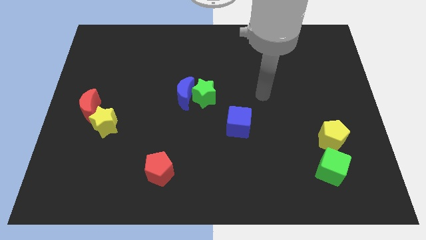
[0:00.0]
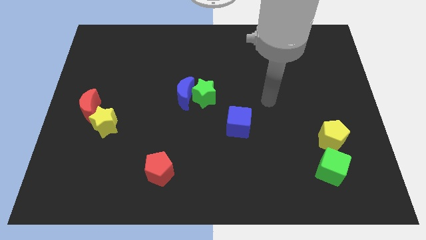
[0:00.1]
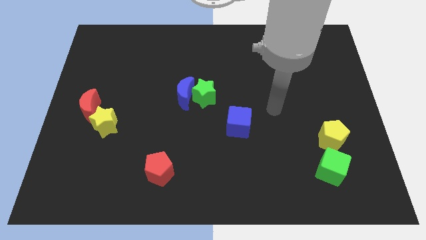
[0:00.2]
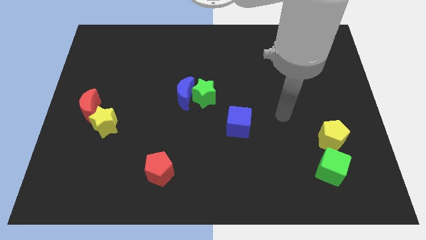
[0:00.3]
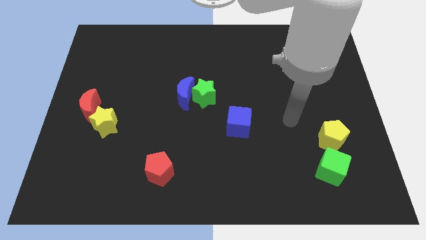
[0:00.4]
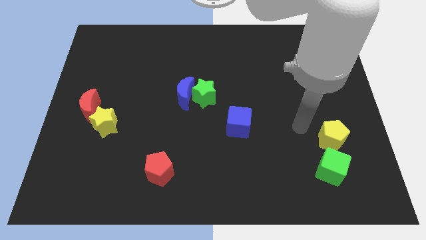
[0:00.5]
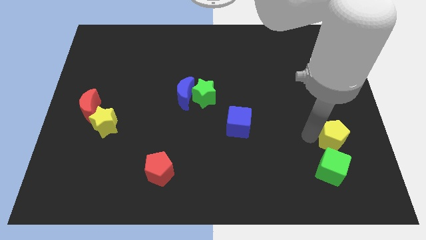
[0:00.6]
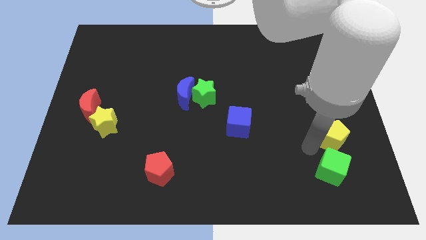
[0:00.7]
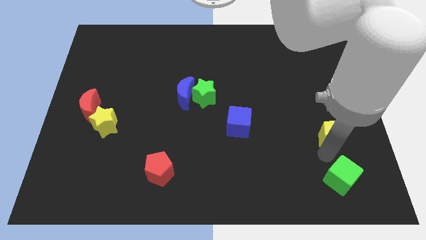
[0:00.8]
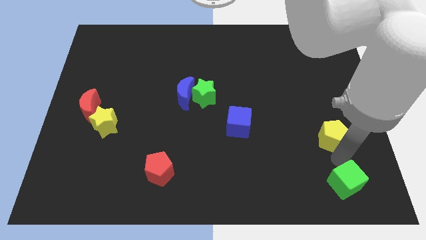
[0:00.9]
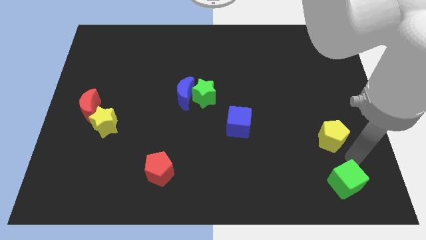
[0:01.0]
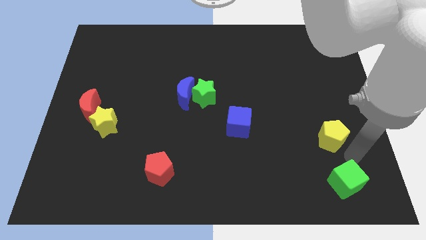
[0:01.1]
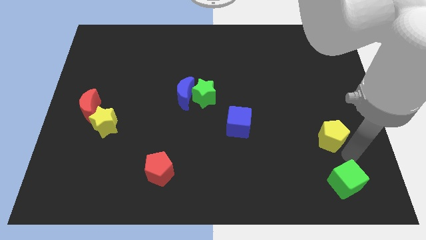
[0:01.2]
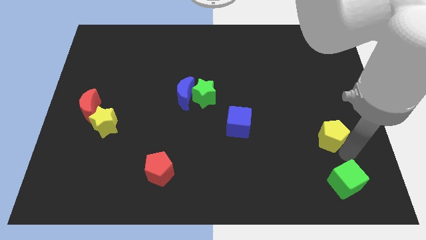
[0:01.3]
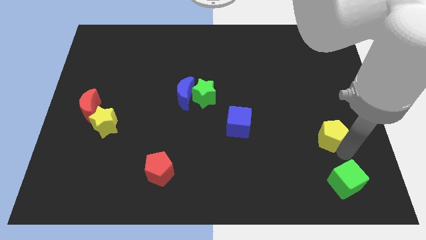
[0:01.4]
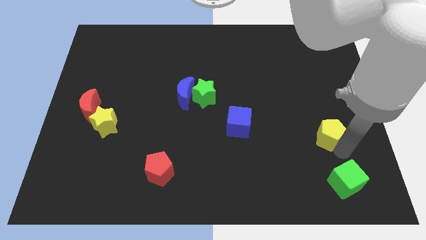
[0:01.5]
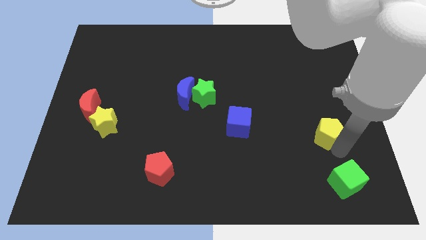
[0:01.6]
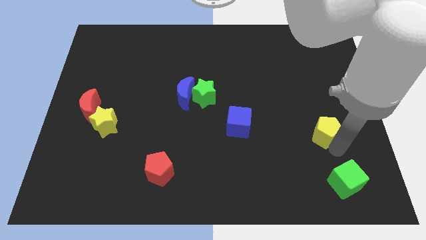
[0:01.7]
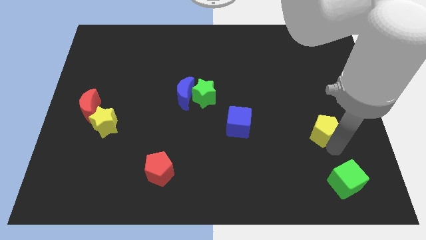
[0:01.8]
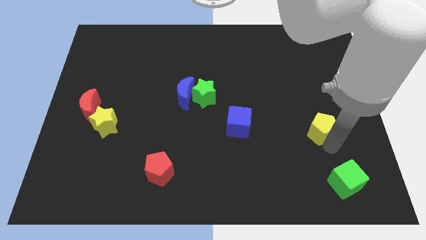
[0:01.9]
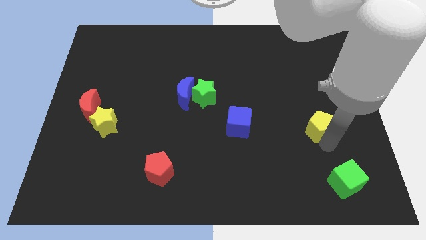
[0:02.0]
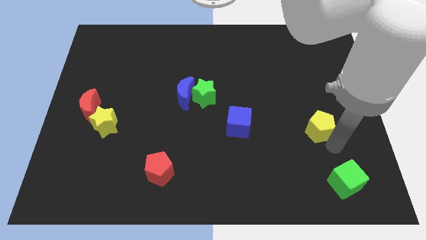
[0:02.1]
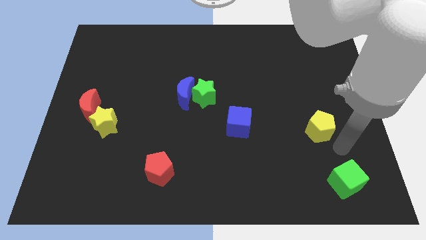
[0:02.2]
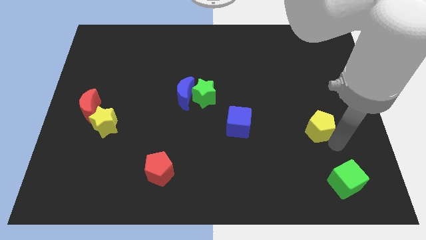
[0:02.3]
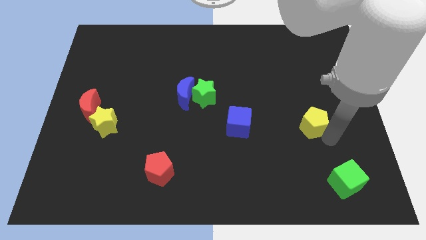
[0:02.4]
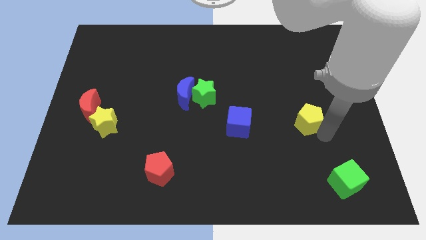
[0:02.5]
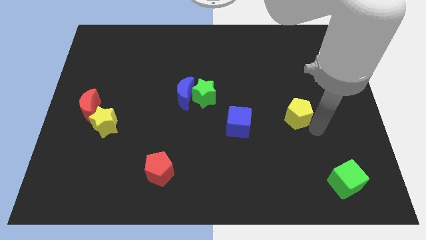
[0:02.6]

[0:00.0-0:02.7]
slide the yellow pentagon up and then to the left somewhat

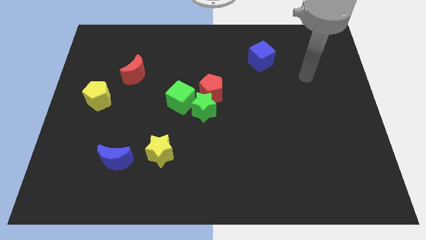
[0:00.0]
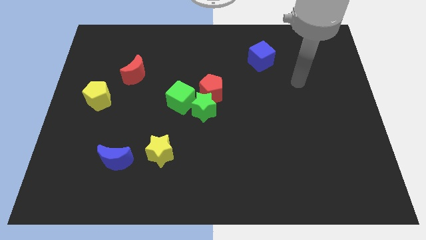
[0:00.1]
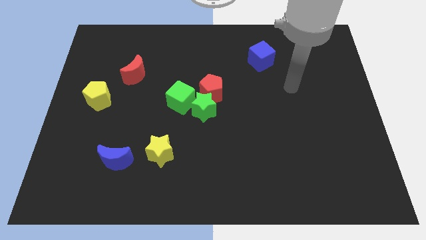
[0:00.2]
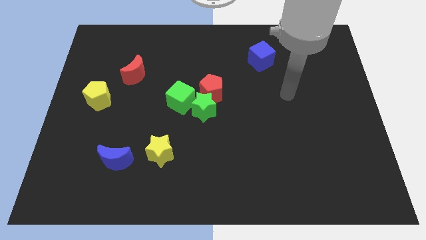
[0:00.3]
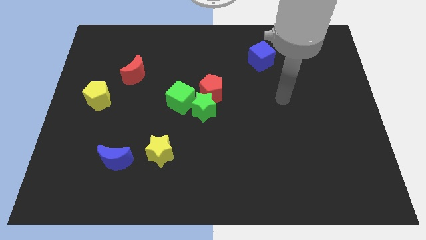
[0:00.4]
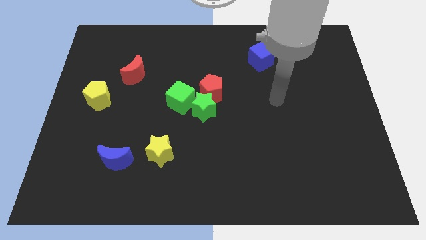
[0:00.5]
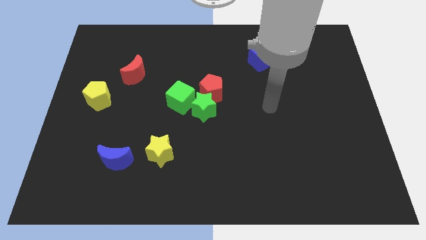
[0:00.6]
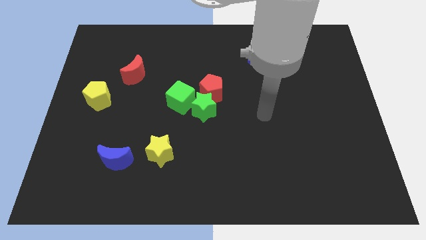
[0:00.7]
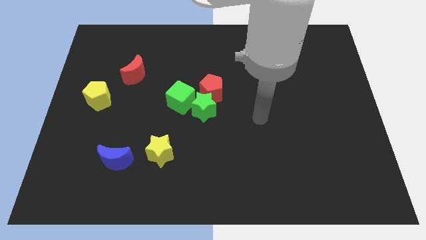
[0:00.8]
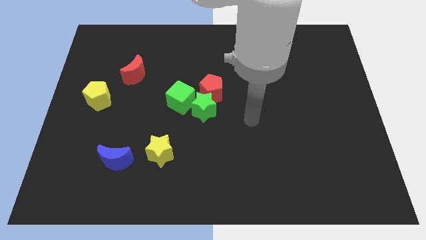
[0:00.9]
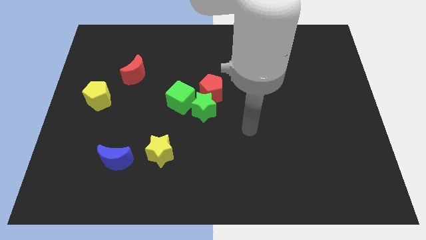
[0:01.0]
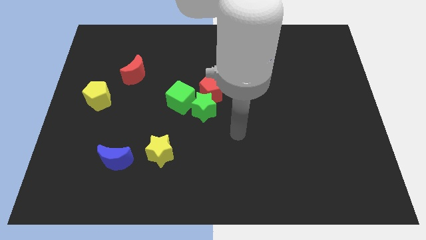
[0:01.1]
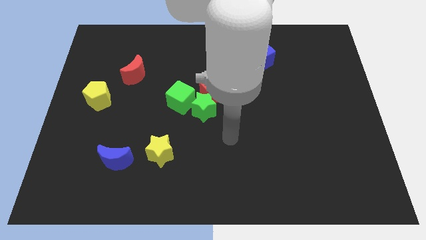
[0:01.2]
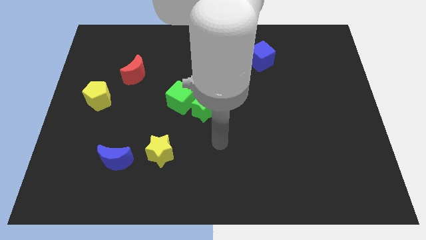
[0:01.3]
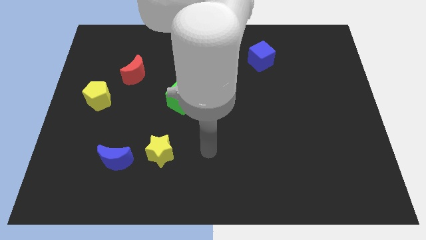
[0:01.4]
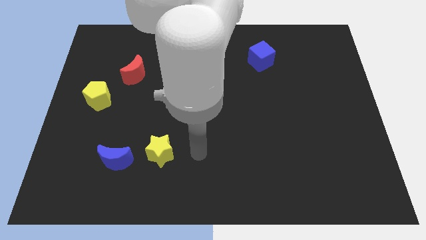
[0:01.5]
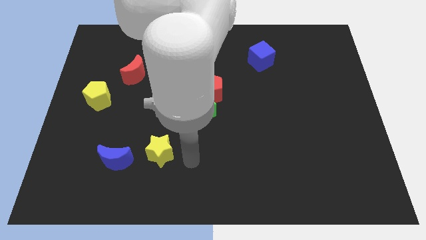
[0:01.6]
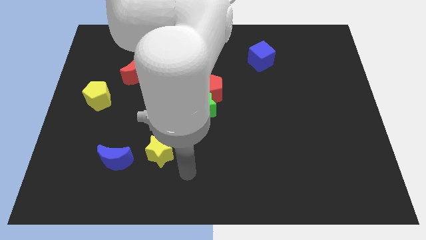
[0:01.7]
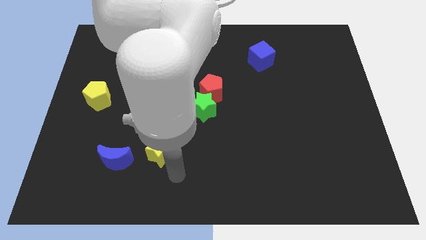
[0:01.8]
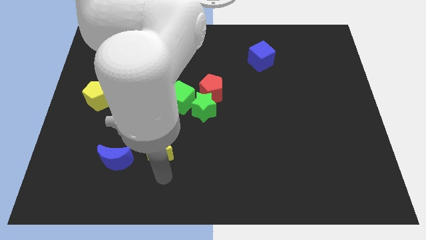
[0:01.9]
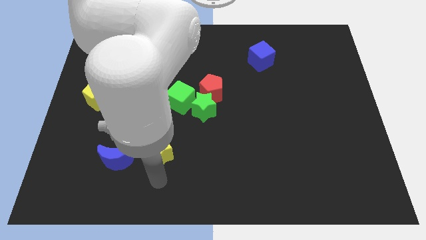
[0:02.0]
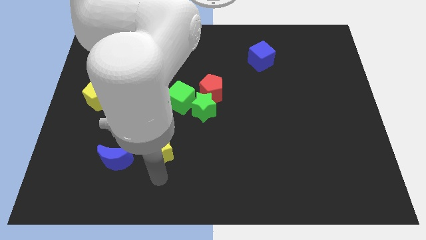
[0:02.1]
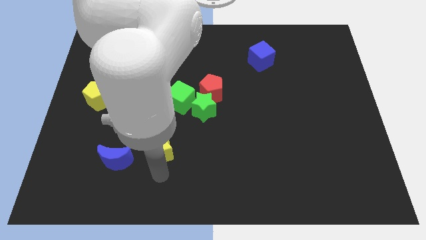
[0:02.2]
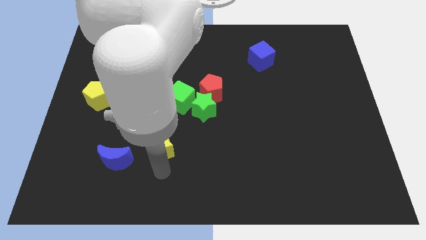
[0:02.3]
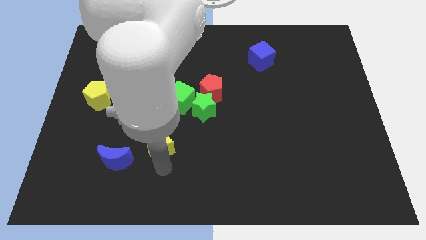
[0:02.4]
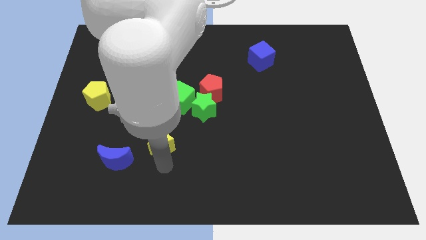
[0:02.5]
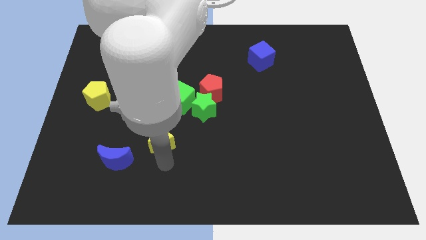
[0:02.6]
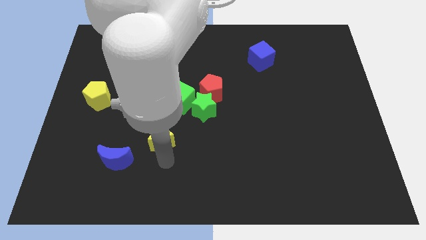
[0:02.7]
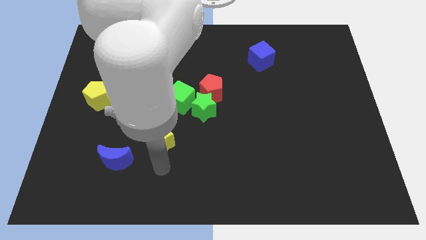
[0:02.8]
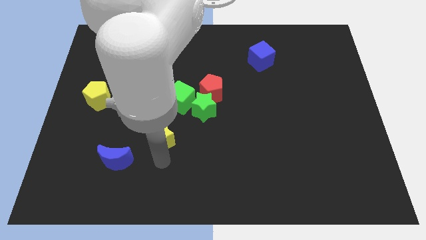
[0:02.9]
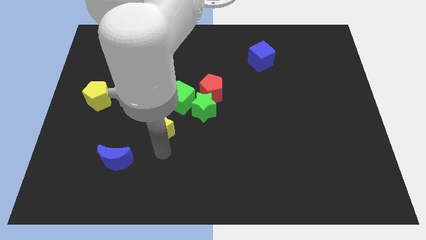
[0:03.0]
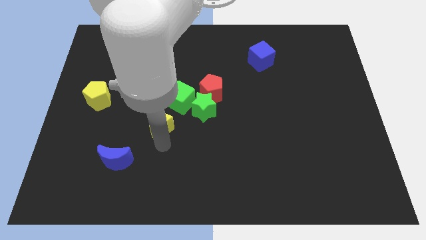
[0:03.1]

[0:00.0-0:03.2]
slide the yellow star a little upwards

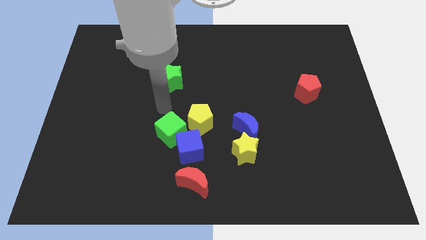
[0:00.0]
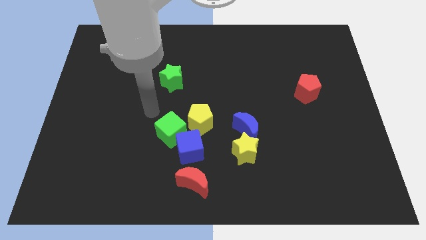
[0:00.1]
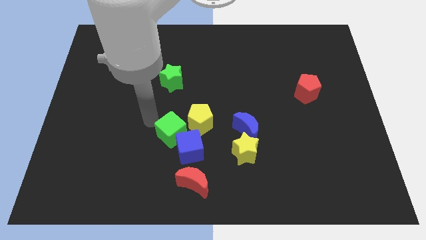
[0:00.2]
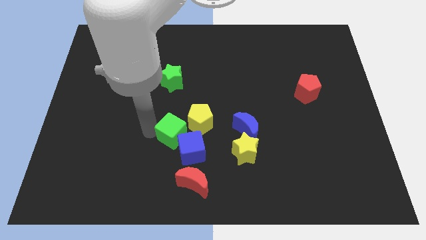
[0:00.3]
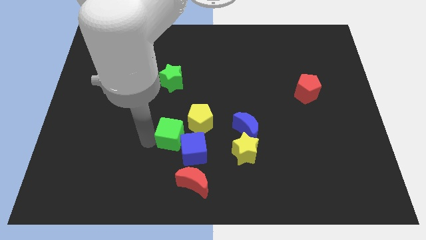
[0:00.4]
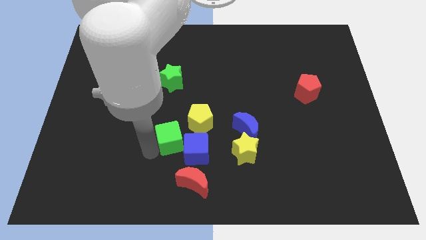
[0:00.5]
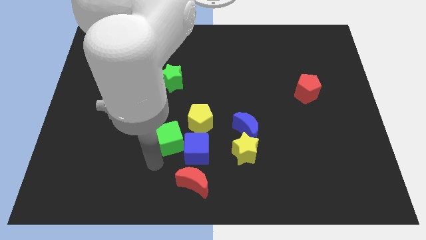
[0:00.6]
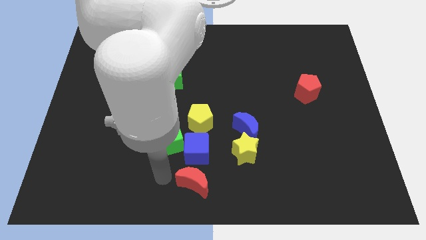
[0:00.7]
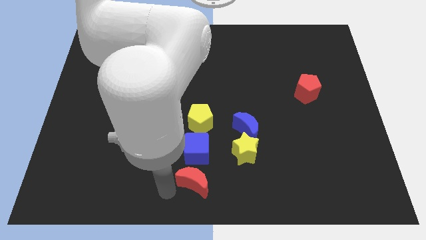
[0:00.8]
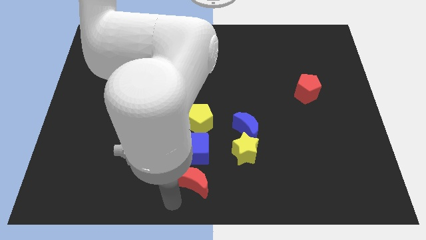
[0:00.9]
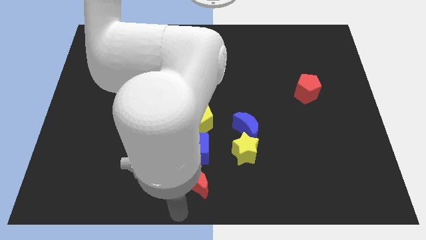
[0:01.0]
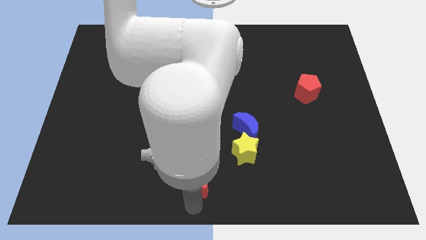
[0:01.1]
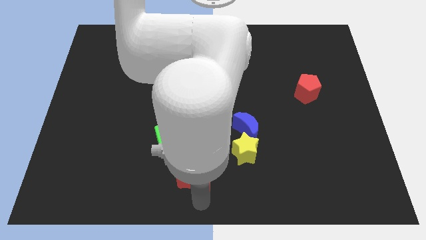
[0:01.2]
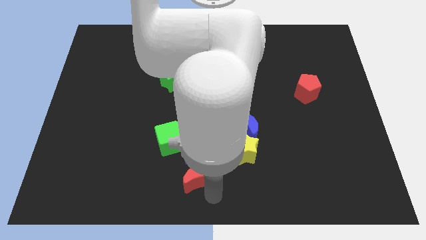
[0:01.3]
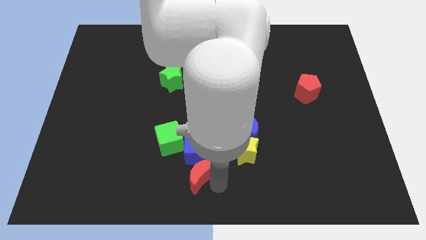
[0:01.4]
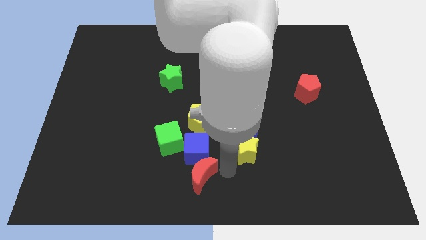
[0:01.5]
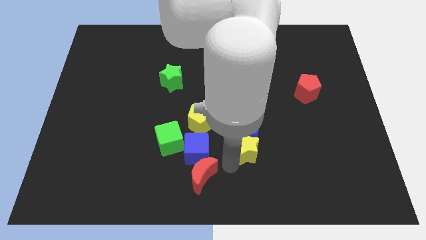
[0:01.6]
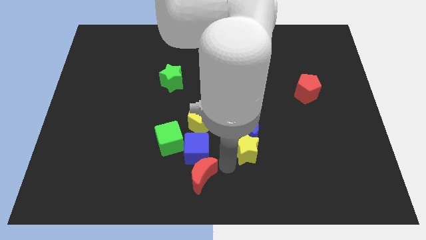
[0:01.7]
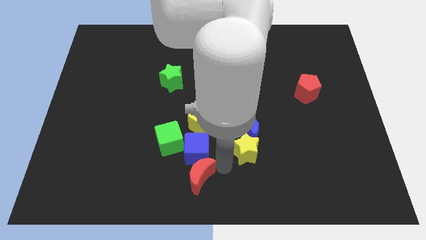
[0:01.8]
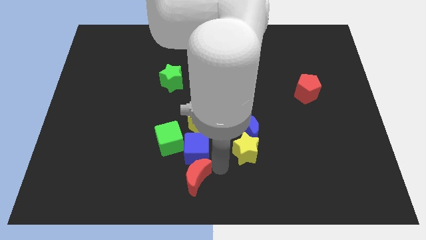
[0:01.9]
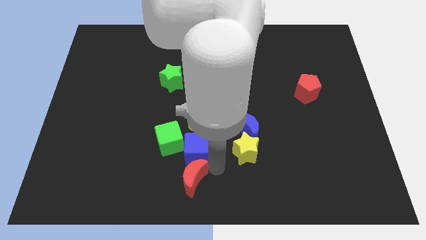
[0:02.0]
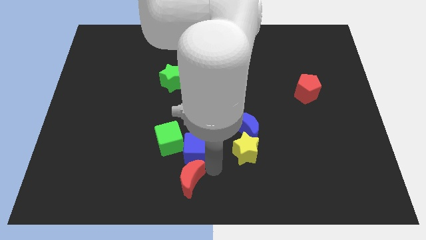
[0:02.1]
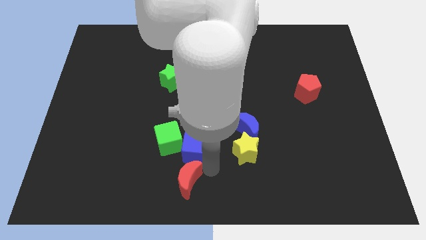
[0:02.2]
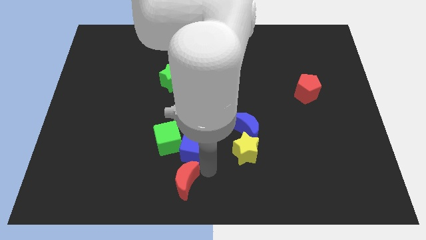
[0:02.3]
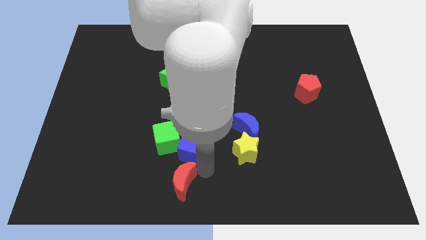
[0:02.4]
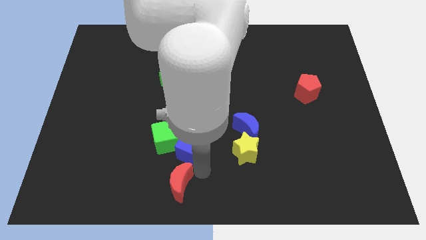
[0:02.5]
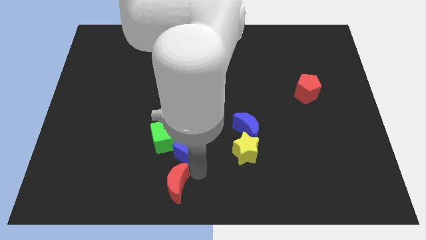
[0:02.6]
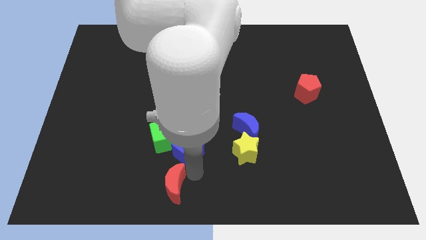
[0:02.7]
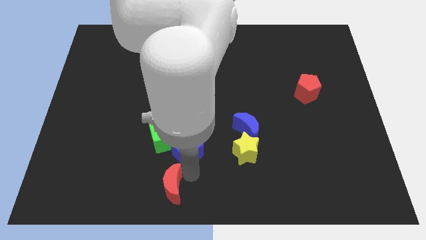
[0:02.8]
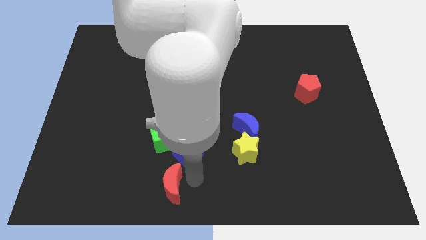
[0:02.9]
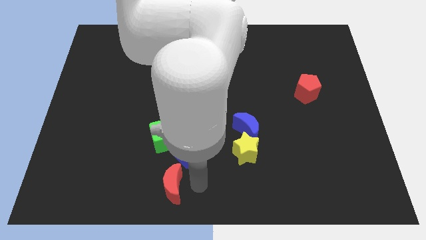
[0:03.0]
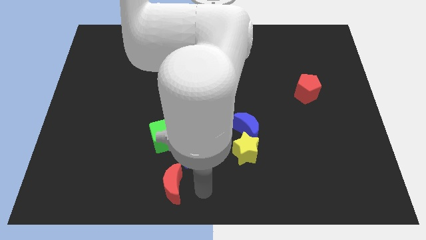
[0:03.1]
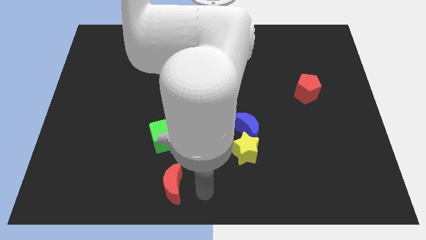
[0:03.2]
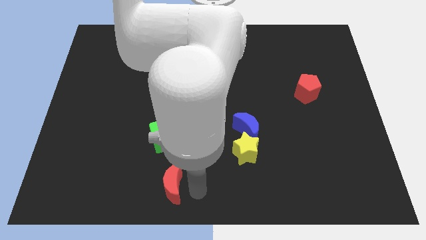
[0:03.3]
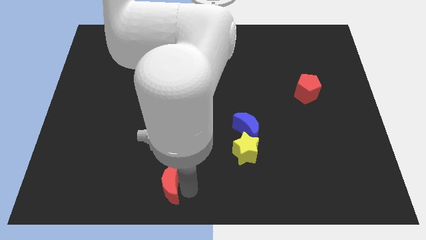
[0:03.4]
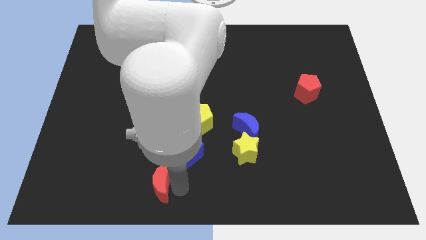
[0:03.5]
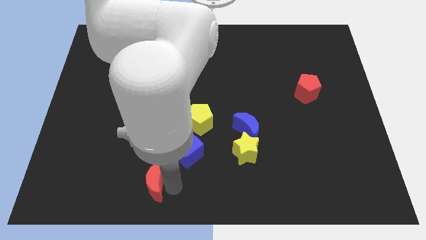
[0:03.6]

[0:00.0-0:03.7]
slightly push the red moon left
